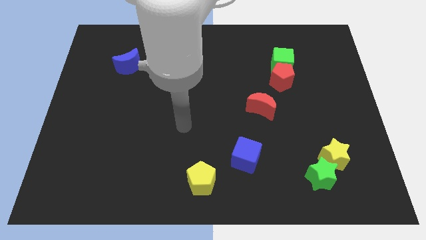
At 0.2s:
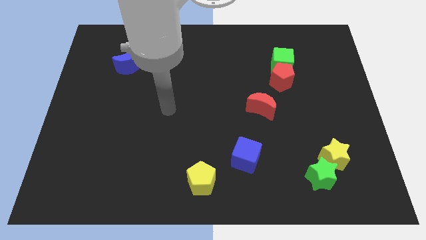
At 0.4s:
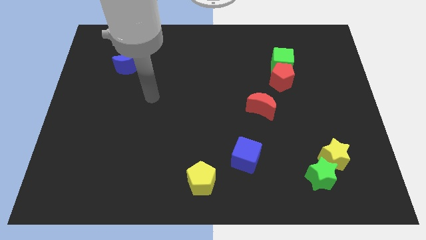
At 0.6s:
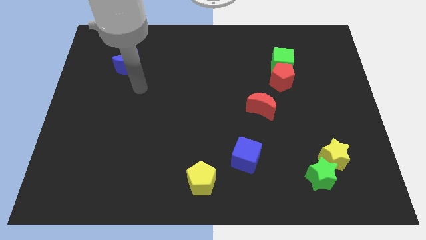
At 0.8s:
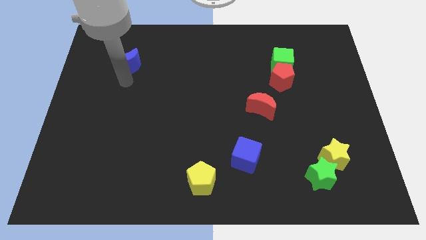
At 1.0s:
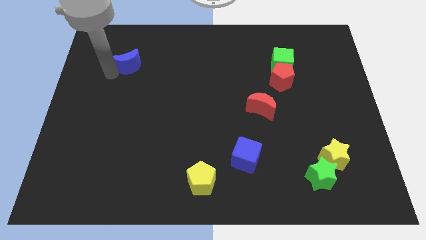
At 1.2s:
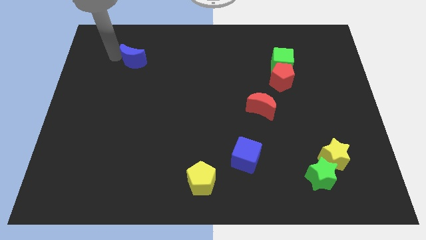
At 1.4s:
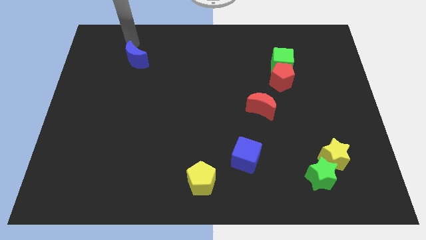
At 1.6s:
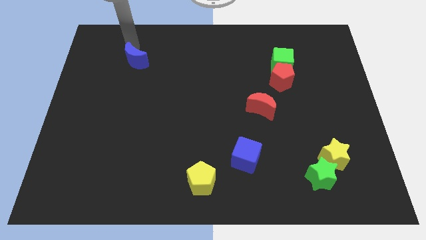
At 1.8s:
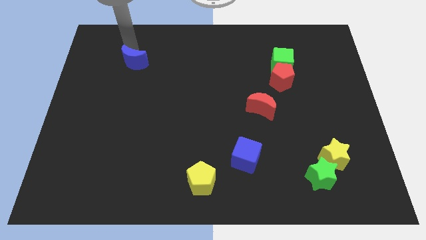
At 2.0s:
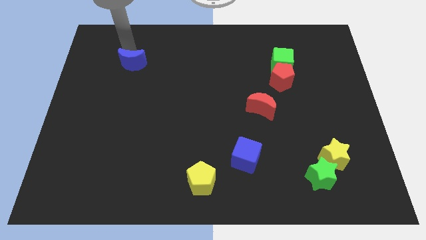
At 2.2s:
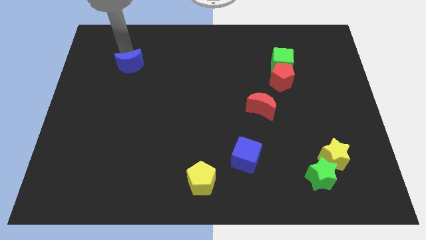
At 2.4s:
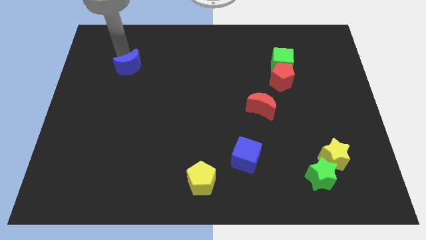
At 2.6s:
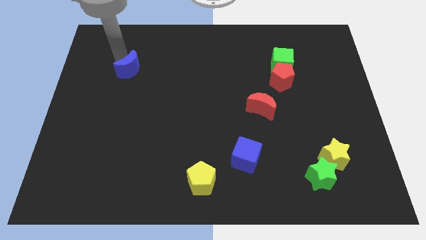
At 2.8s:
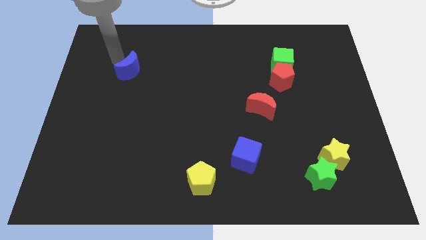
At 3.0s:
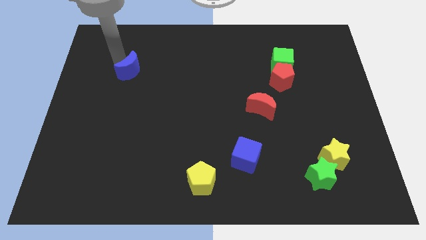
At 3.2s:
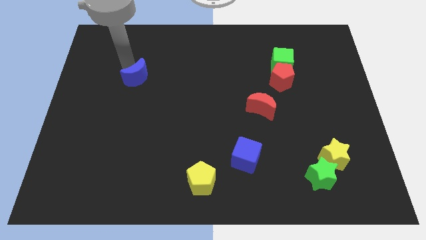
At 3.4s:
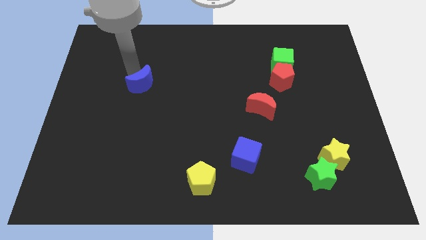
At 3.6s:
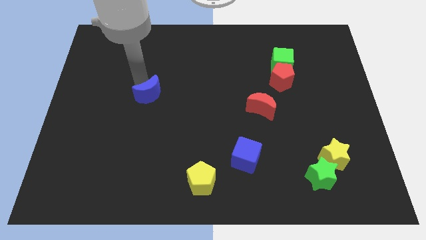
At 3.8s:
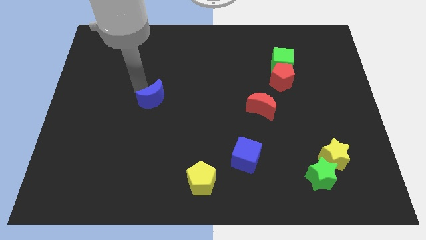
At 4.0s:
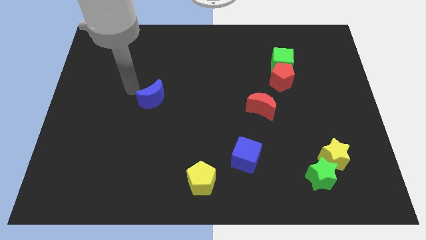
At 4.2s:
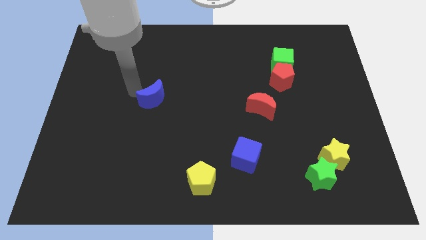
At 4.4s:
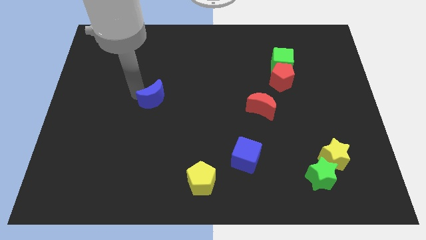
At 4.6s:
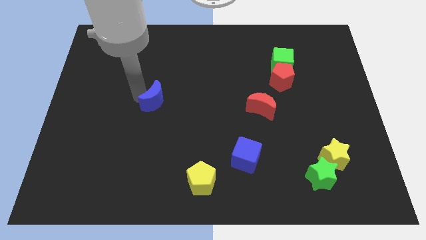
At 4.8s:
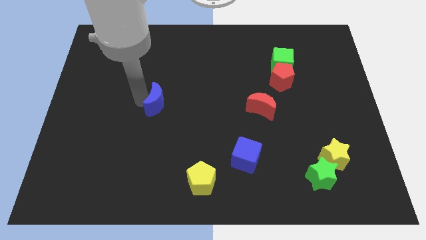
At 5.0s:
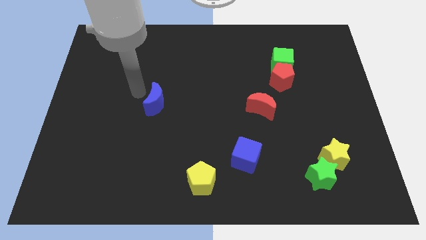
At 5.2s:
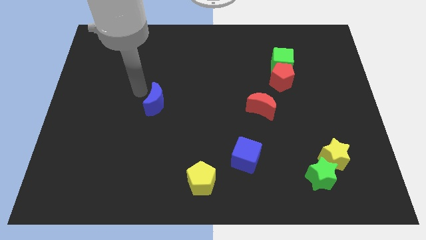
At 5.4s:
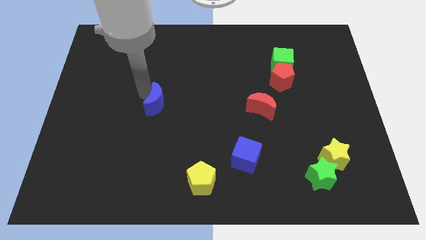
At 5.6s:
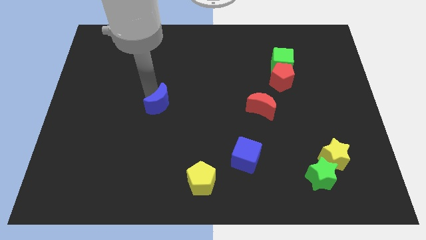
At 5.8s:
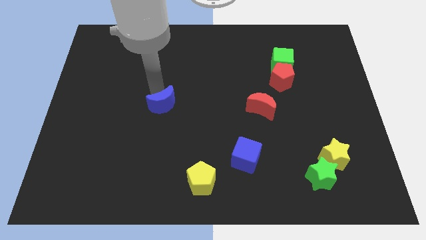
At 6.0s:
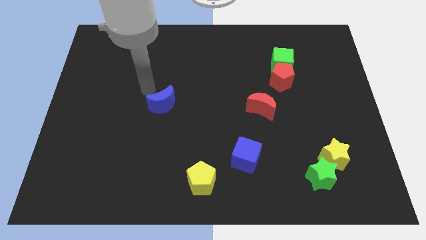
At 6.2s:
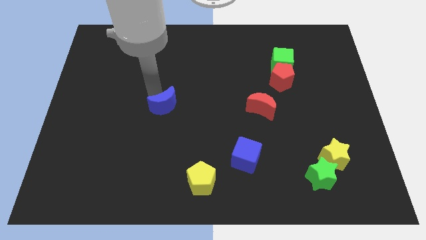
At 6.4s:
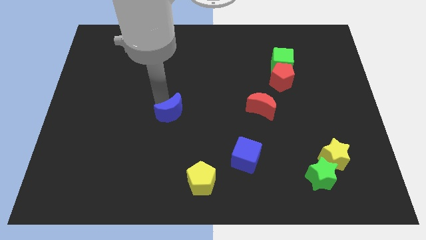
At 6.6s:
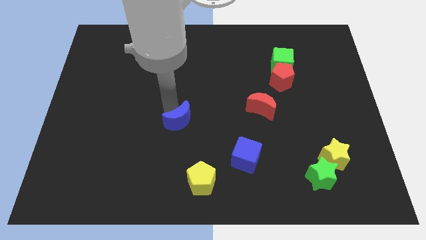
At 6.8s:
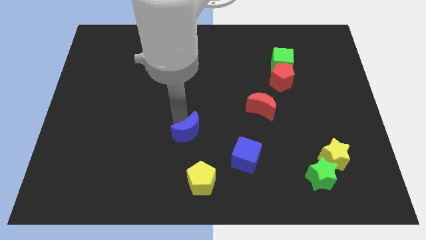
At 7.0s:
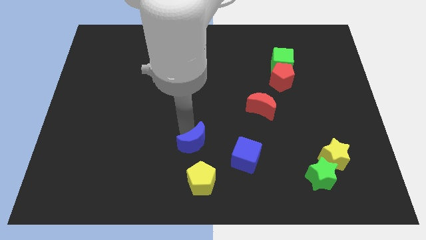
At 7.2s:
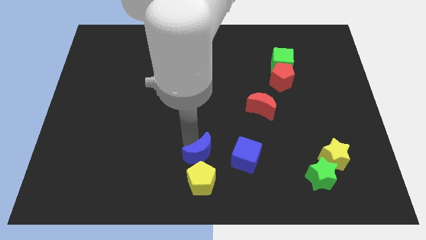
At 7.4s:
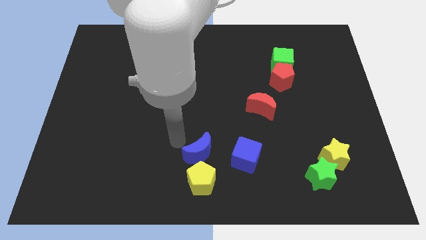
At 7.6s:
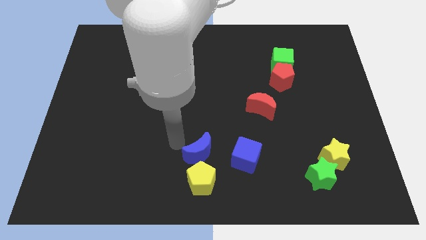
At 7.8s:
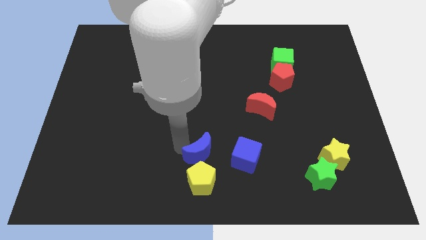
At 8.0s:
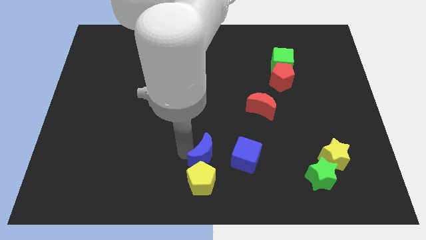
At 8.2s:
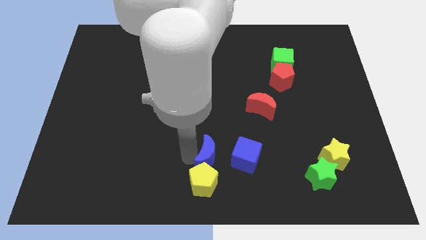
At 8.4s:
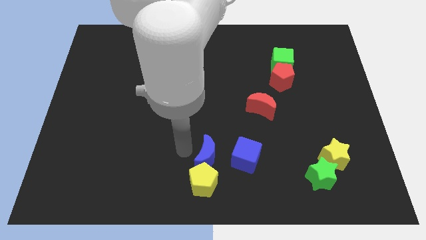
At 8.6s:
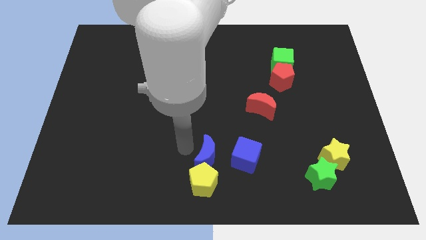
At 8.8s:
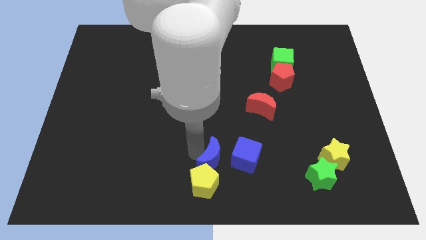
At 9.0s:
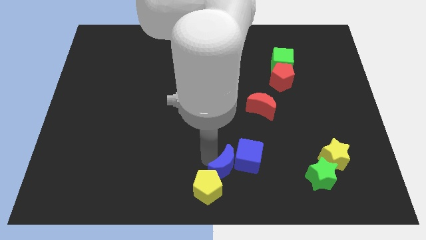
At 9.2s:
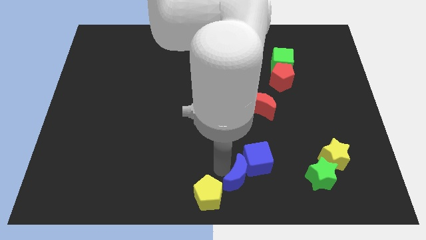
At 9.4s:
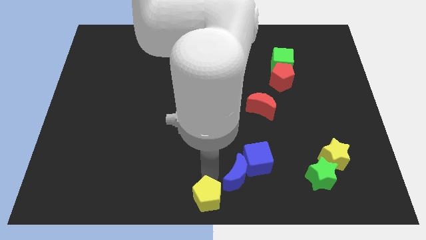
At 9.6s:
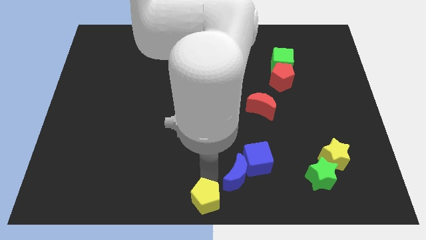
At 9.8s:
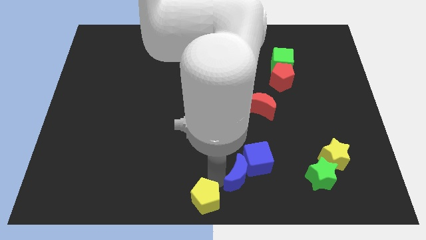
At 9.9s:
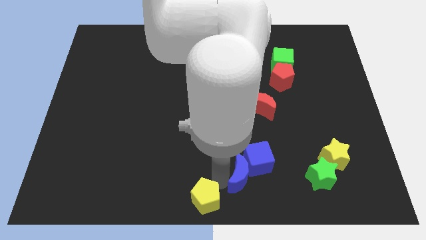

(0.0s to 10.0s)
move the blue moon just left of the green star

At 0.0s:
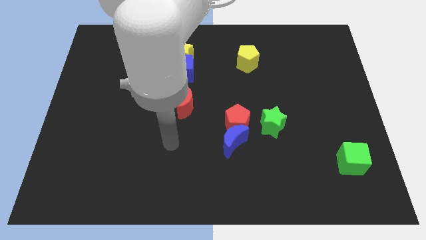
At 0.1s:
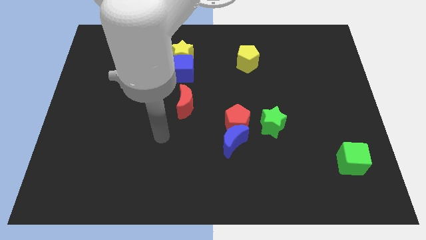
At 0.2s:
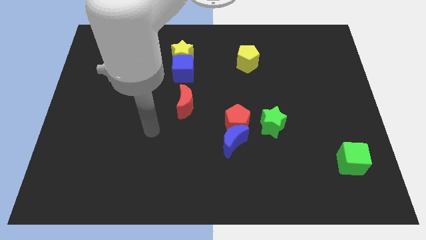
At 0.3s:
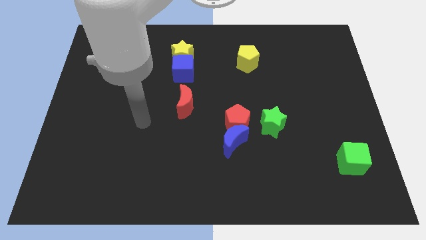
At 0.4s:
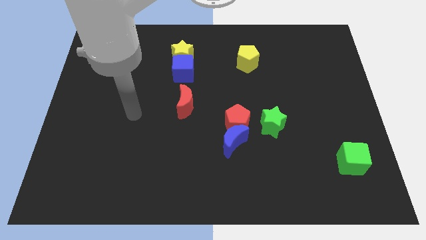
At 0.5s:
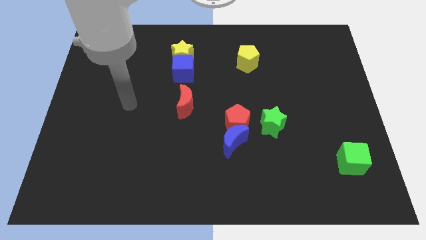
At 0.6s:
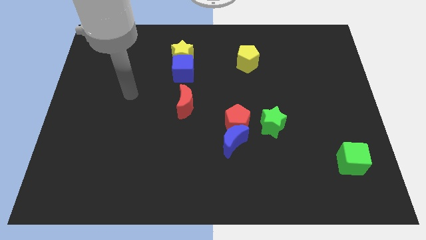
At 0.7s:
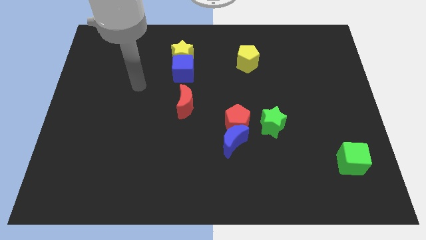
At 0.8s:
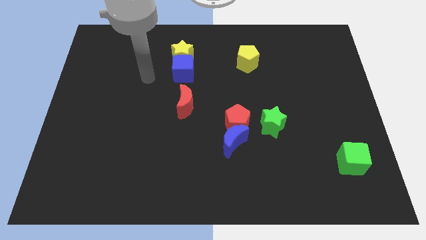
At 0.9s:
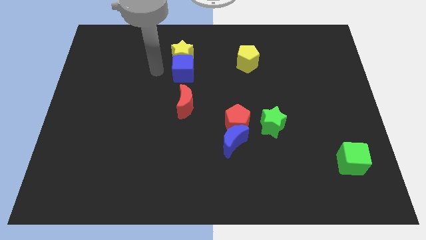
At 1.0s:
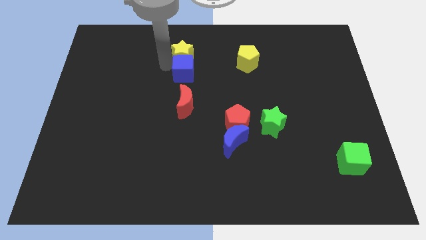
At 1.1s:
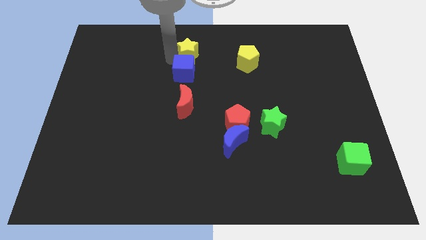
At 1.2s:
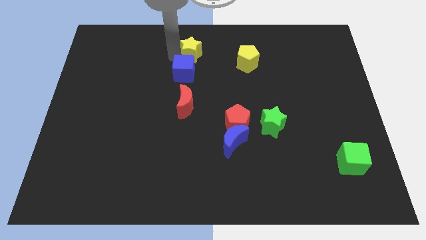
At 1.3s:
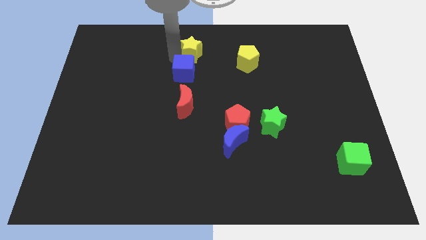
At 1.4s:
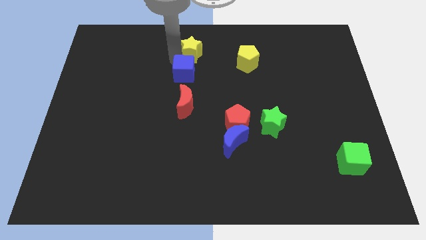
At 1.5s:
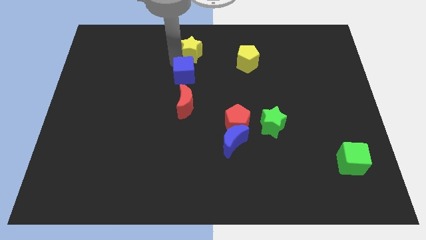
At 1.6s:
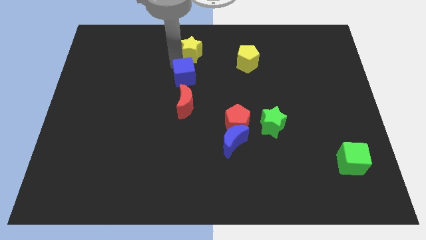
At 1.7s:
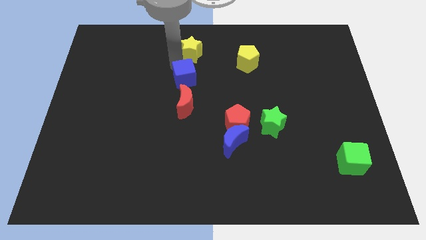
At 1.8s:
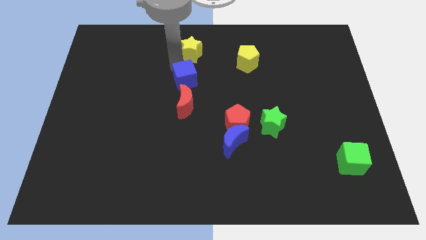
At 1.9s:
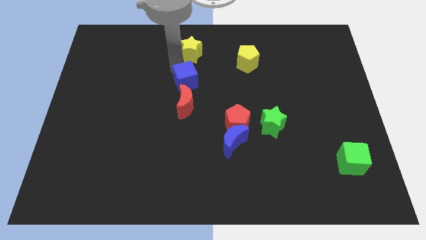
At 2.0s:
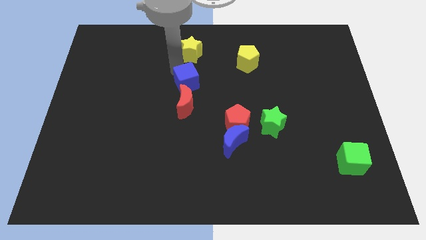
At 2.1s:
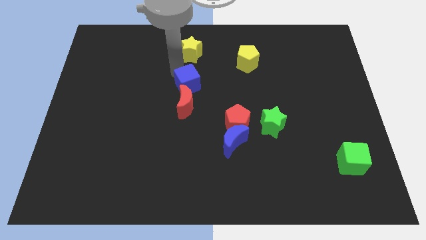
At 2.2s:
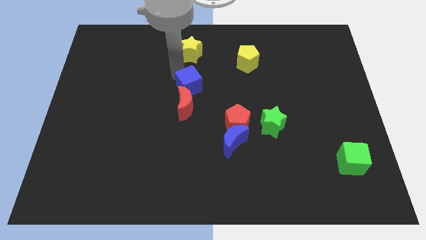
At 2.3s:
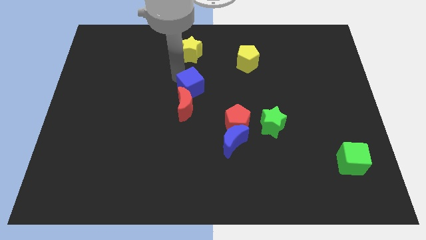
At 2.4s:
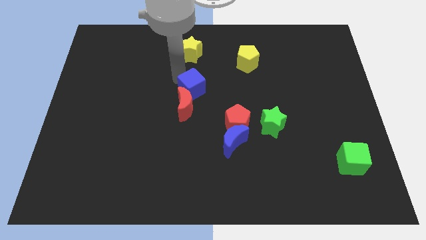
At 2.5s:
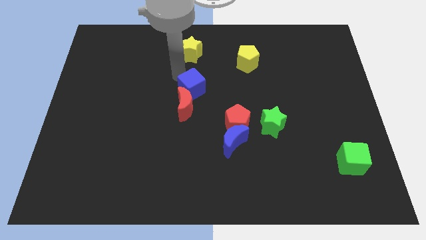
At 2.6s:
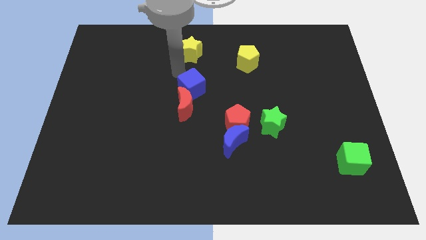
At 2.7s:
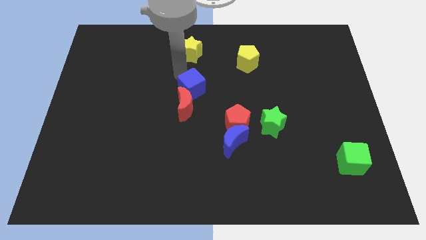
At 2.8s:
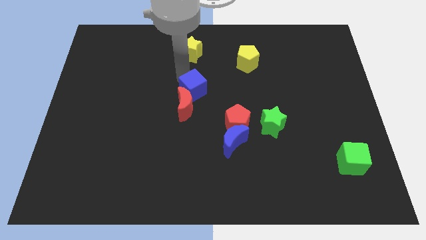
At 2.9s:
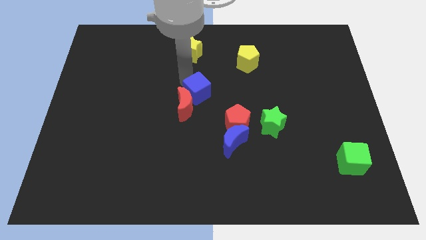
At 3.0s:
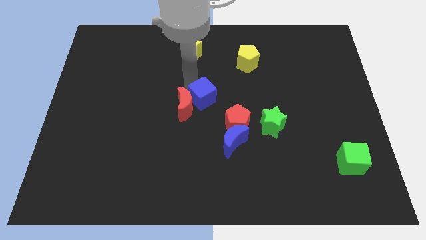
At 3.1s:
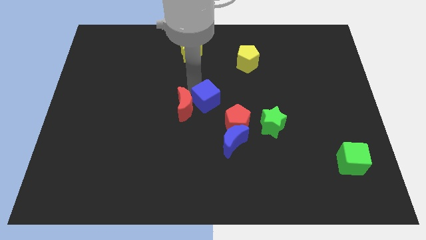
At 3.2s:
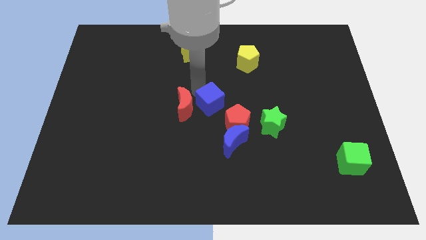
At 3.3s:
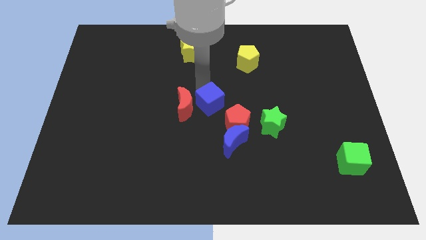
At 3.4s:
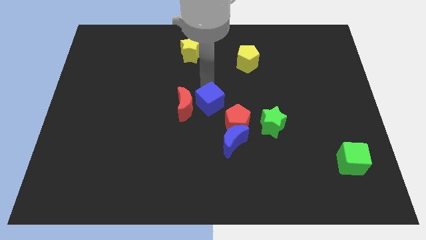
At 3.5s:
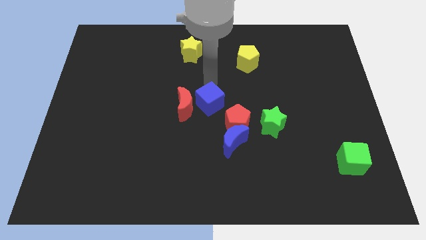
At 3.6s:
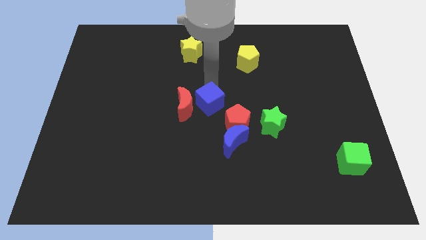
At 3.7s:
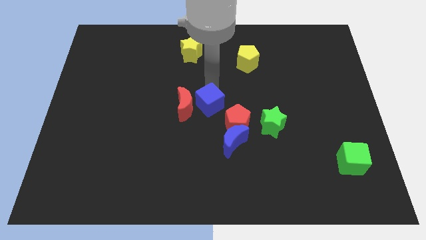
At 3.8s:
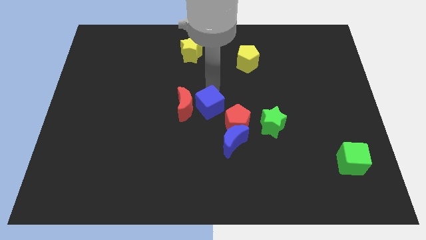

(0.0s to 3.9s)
slide the blue cube to the top left of the blue moon
